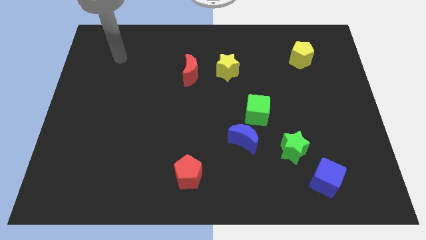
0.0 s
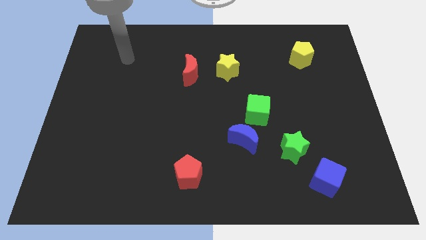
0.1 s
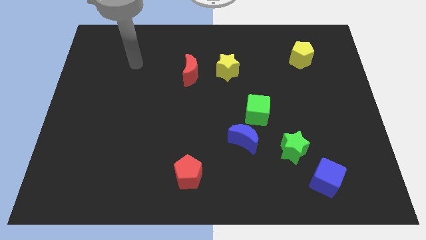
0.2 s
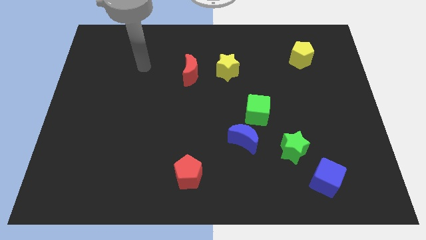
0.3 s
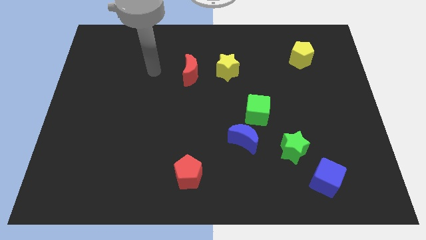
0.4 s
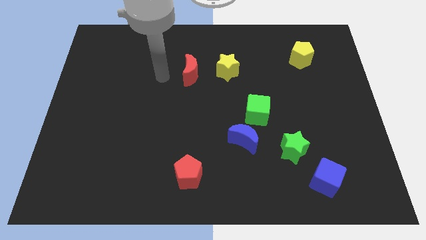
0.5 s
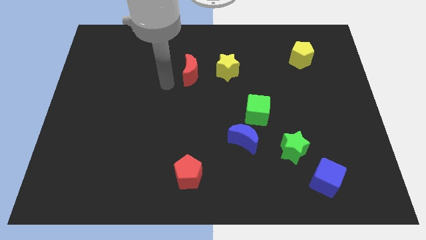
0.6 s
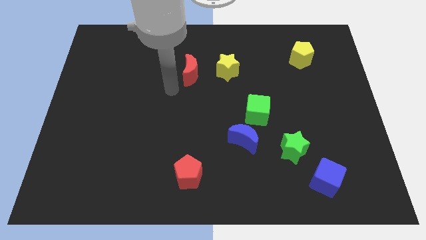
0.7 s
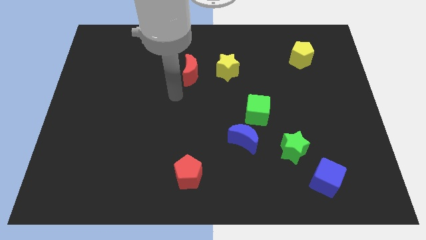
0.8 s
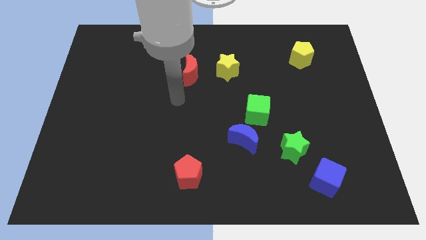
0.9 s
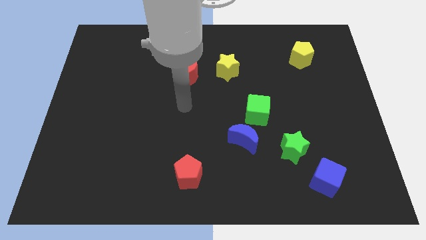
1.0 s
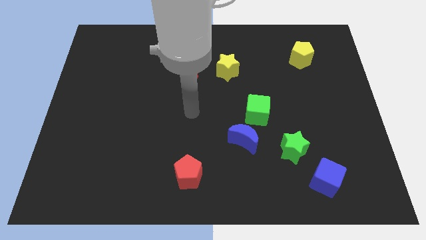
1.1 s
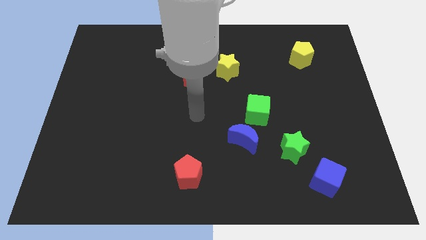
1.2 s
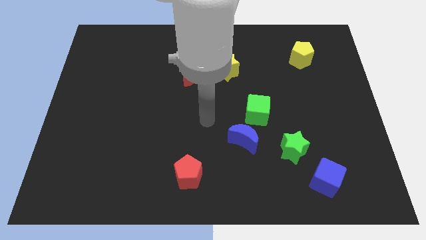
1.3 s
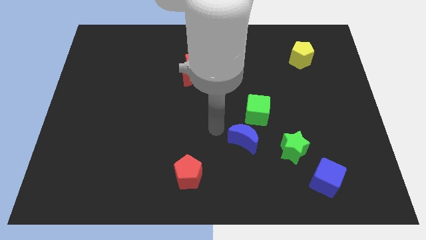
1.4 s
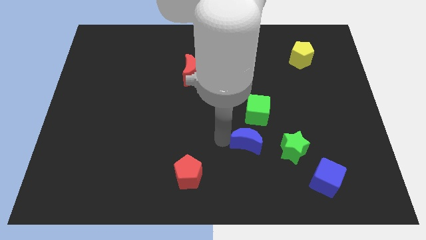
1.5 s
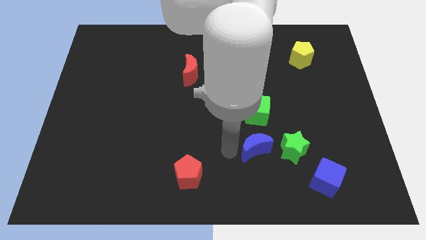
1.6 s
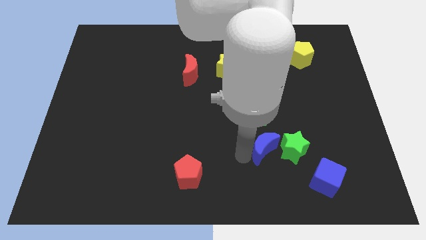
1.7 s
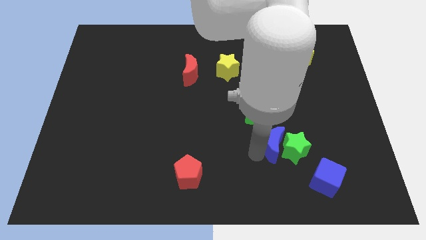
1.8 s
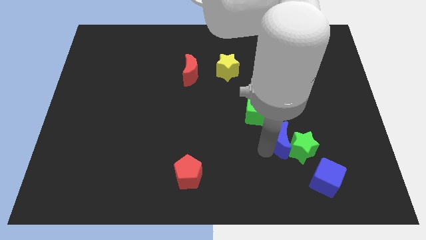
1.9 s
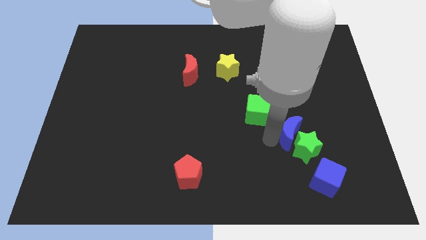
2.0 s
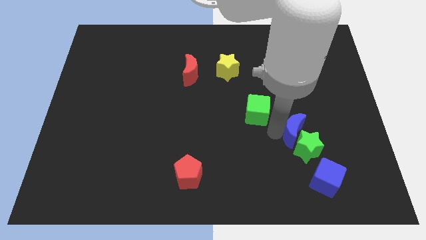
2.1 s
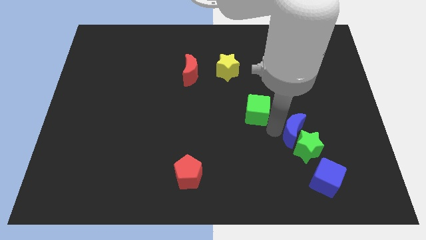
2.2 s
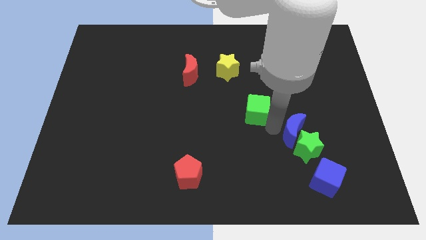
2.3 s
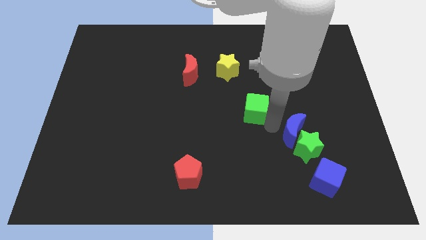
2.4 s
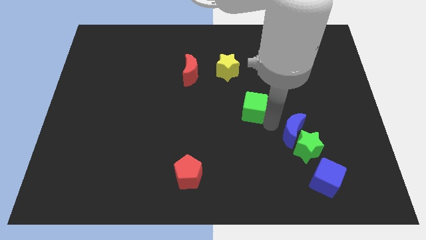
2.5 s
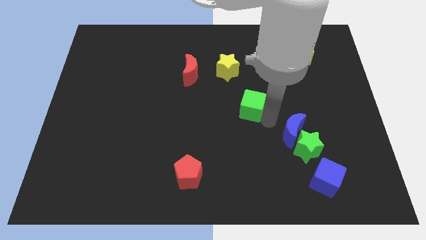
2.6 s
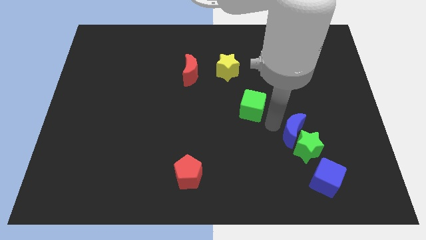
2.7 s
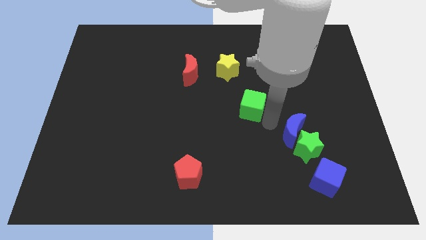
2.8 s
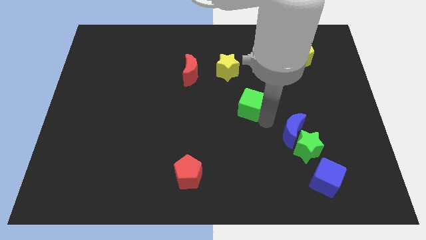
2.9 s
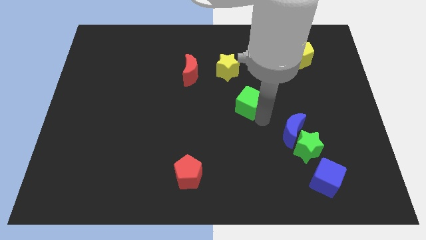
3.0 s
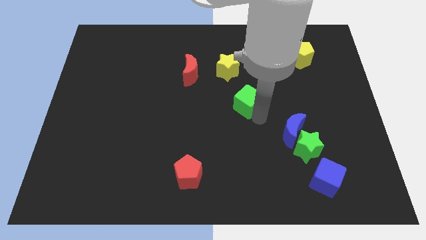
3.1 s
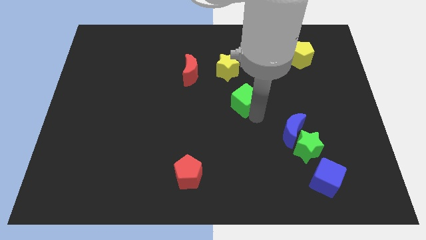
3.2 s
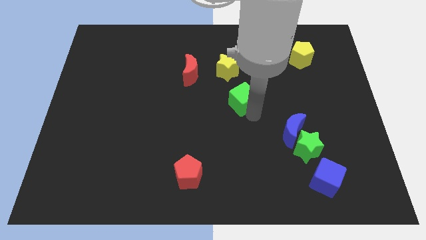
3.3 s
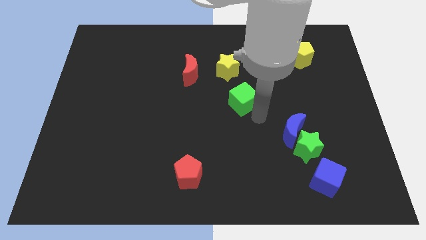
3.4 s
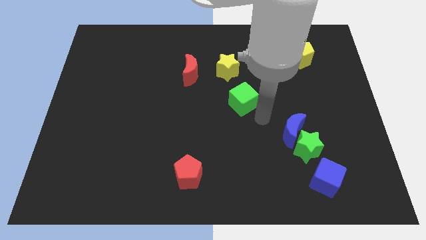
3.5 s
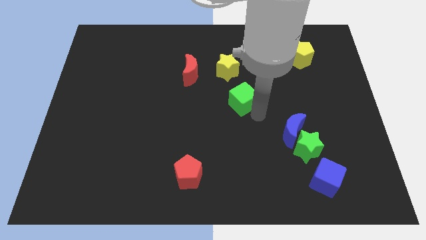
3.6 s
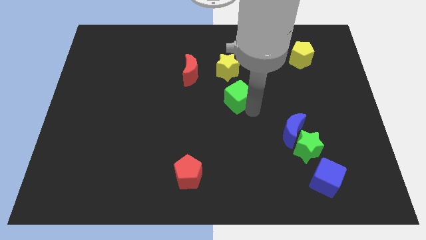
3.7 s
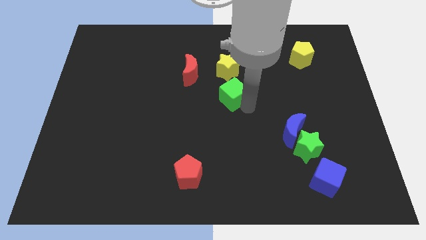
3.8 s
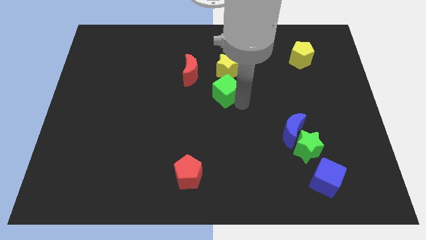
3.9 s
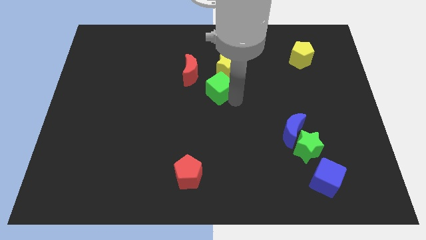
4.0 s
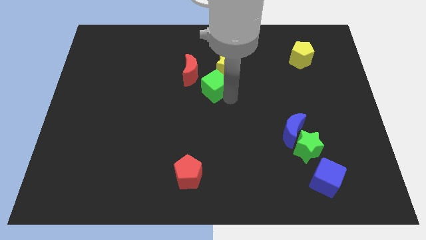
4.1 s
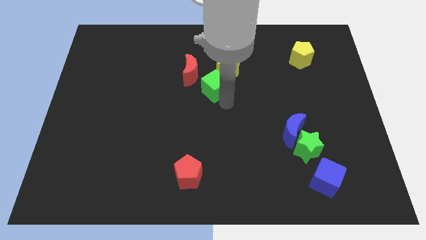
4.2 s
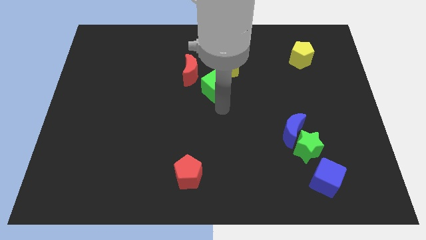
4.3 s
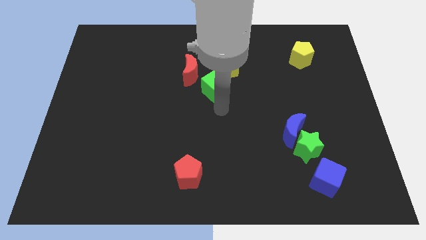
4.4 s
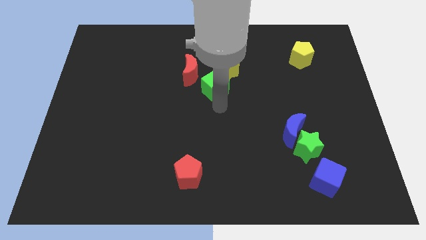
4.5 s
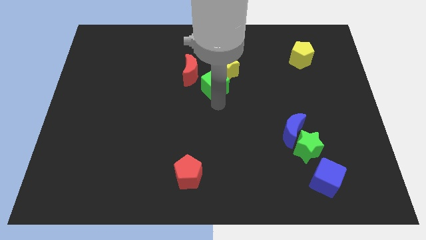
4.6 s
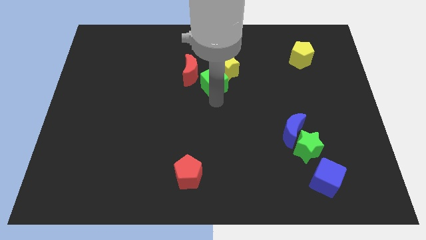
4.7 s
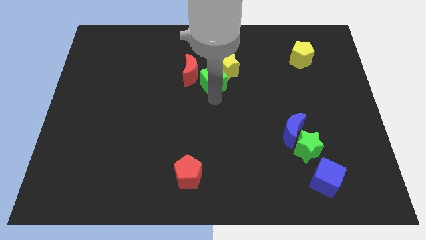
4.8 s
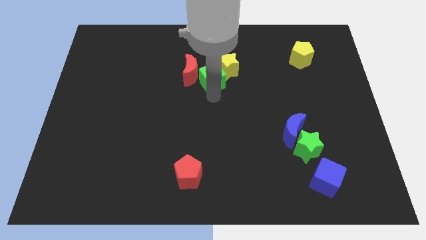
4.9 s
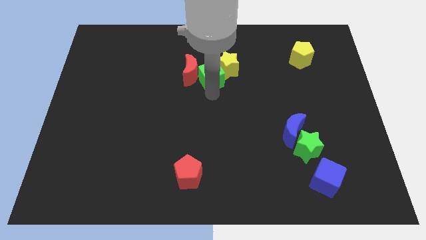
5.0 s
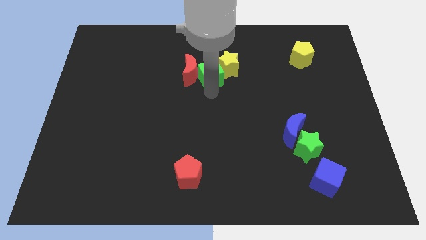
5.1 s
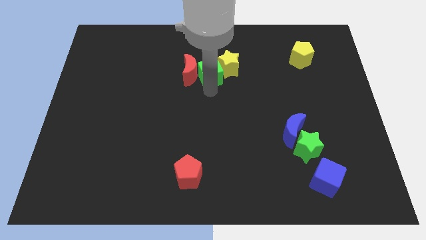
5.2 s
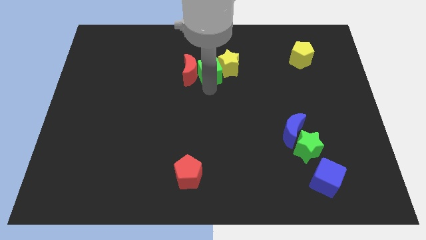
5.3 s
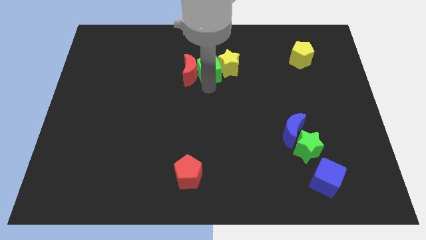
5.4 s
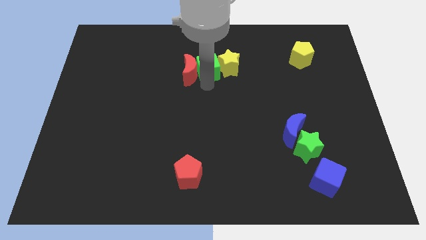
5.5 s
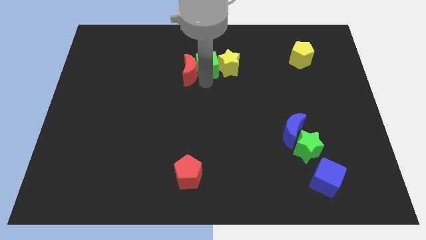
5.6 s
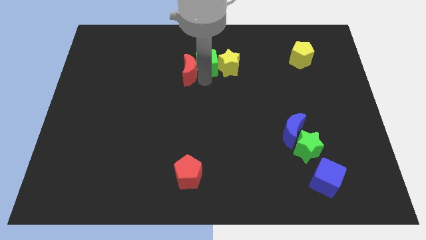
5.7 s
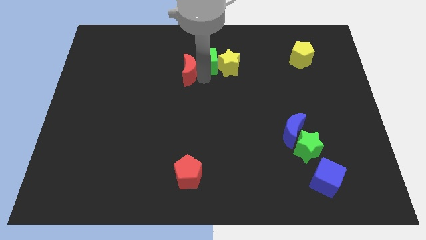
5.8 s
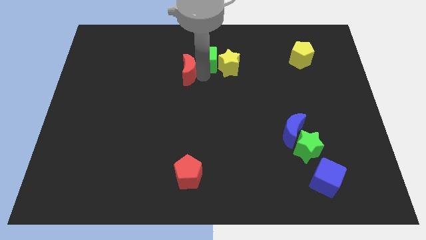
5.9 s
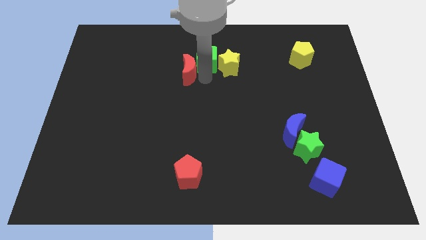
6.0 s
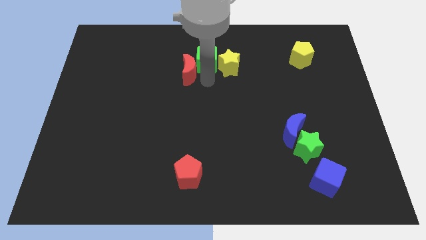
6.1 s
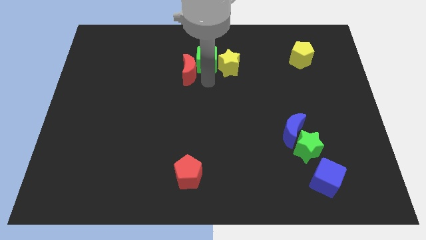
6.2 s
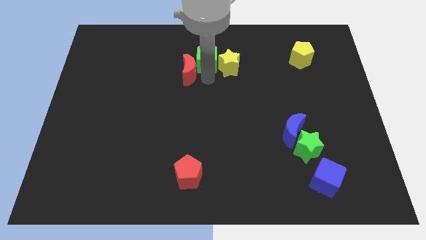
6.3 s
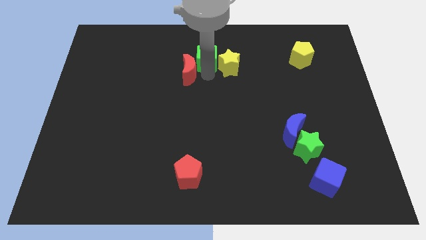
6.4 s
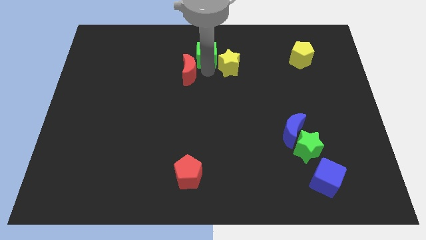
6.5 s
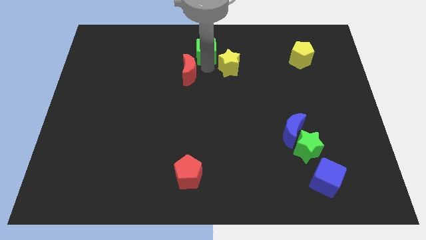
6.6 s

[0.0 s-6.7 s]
move the green cube to the towards your base
